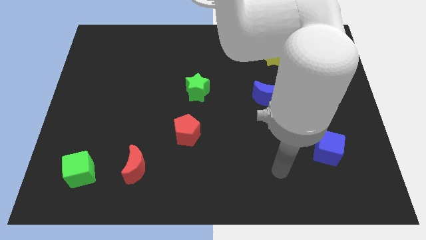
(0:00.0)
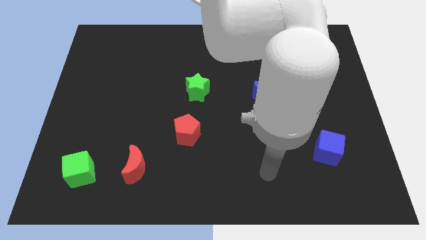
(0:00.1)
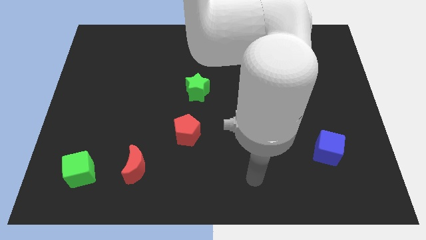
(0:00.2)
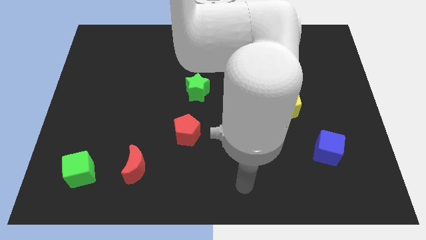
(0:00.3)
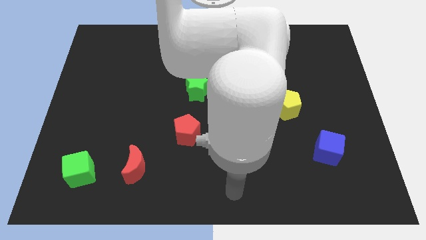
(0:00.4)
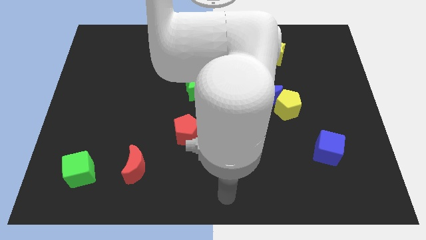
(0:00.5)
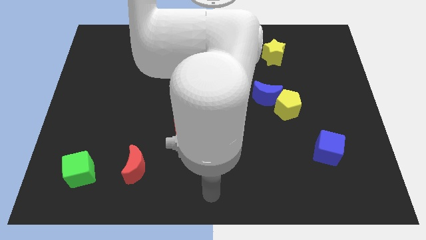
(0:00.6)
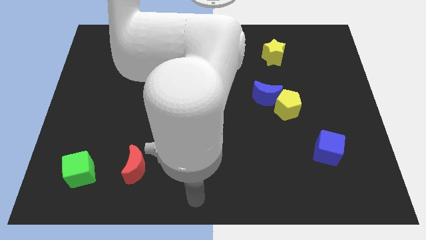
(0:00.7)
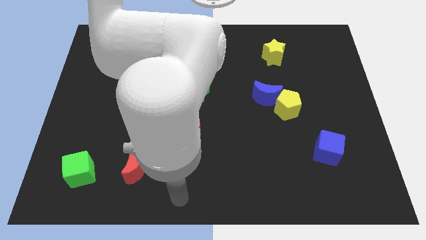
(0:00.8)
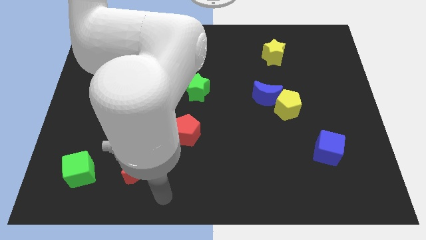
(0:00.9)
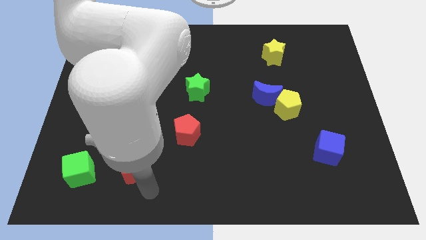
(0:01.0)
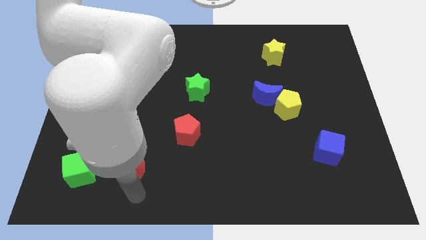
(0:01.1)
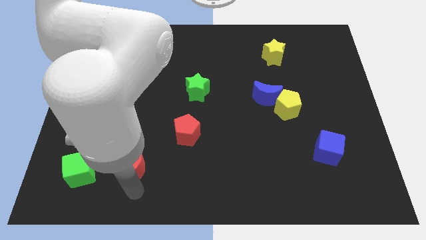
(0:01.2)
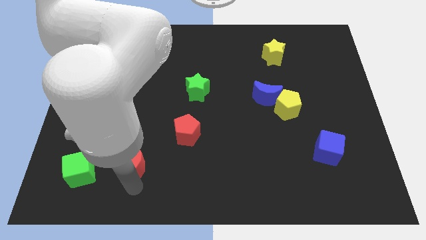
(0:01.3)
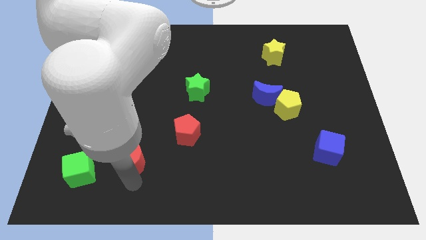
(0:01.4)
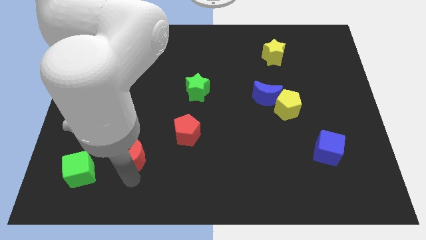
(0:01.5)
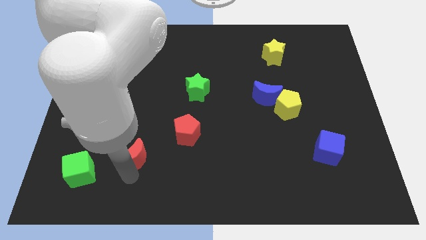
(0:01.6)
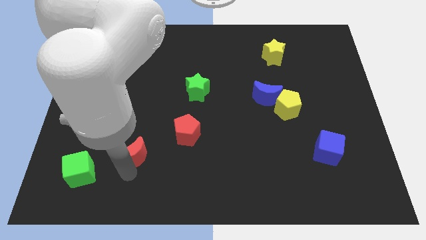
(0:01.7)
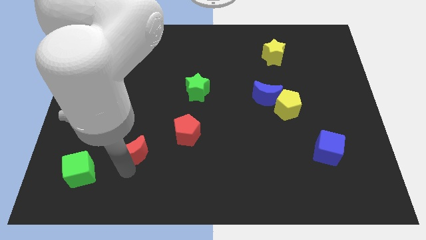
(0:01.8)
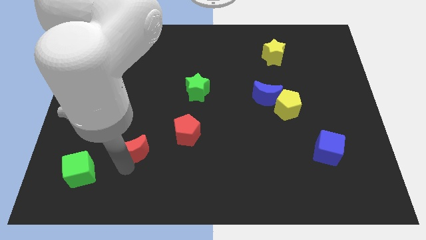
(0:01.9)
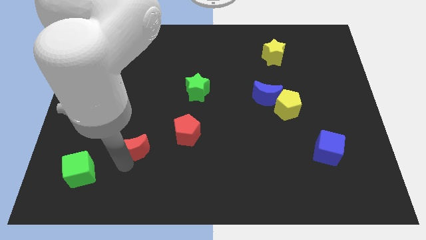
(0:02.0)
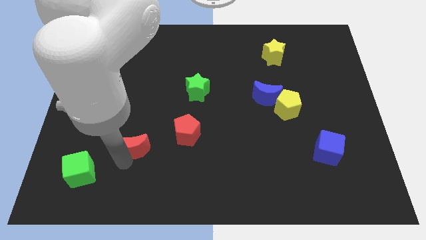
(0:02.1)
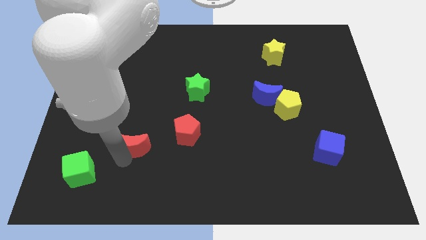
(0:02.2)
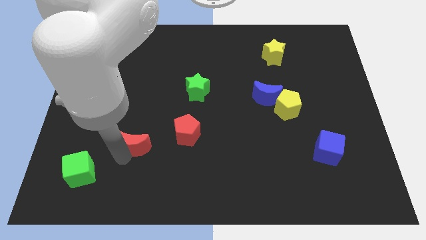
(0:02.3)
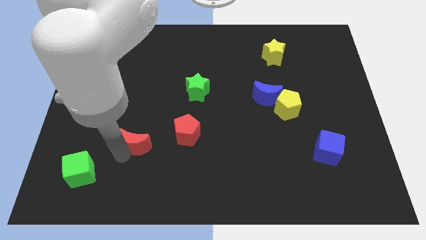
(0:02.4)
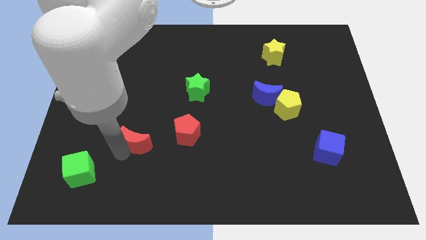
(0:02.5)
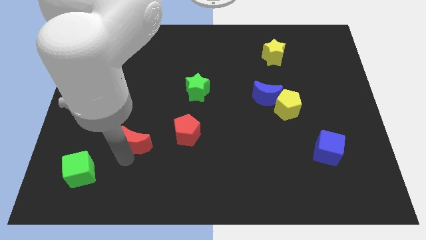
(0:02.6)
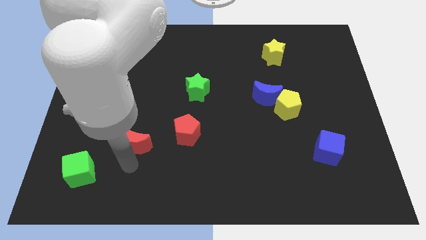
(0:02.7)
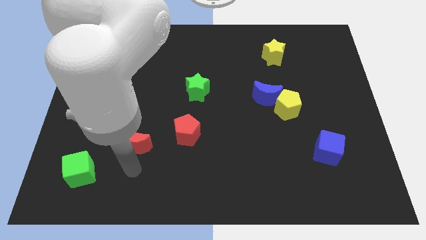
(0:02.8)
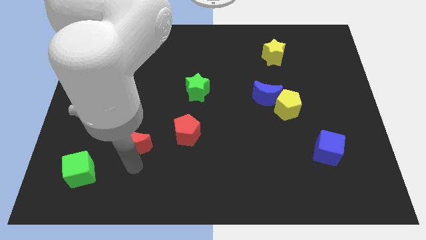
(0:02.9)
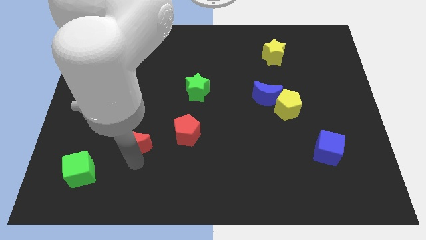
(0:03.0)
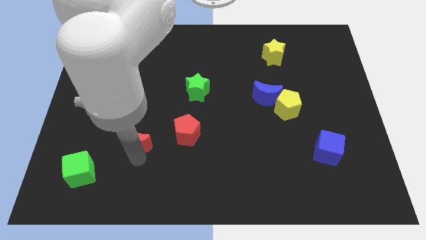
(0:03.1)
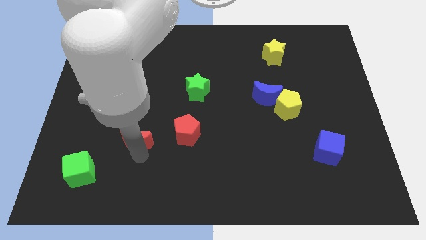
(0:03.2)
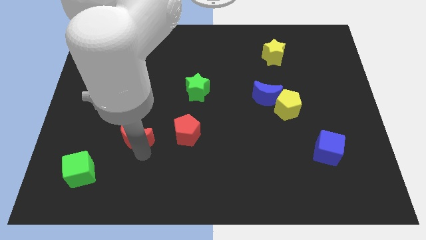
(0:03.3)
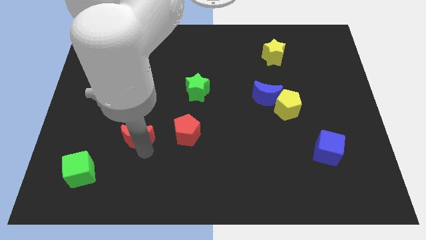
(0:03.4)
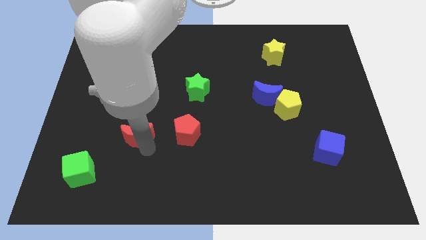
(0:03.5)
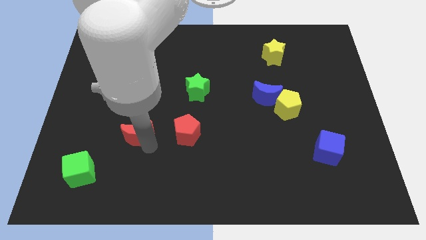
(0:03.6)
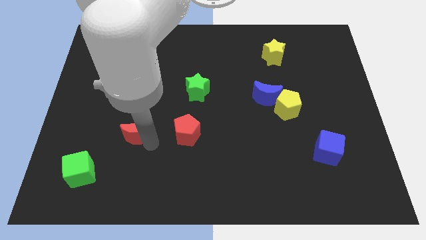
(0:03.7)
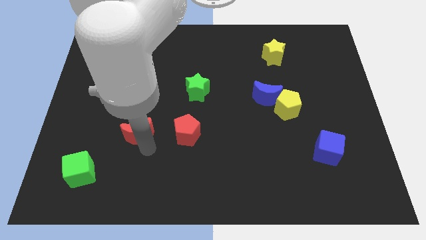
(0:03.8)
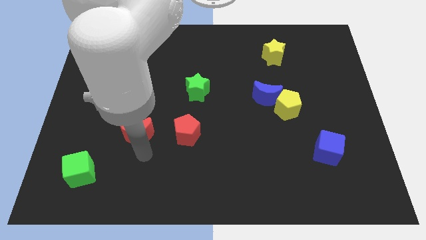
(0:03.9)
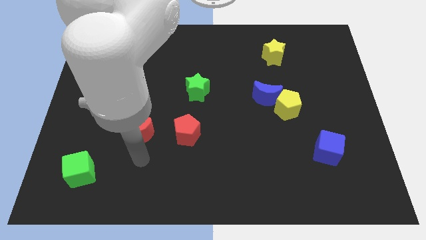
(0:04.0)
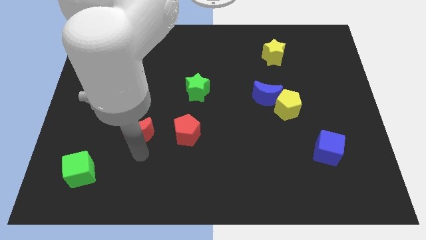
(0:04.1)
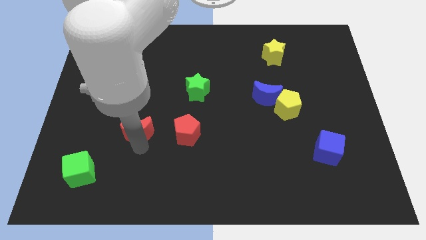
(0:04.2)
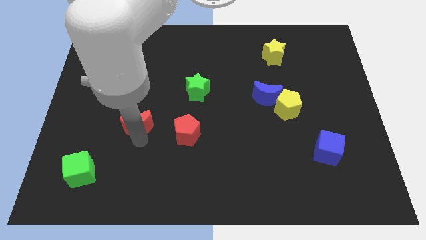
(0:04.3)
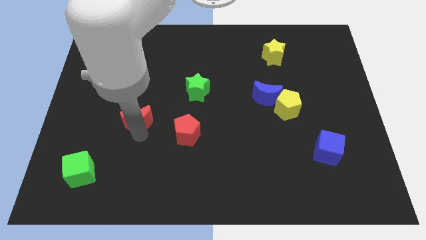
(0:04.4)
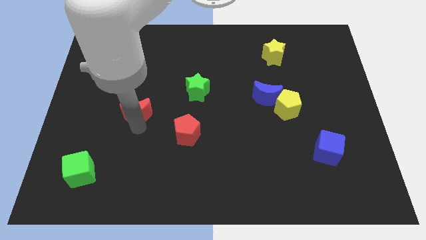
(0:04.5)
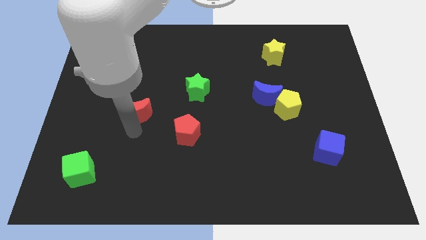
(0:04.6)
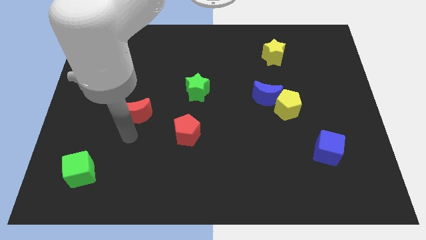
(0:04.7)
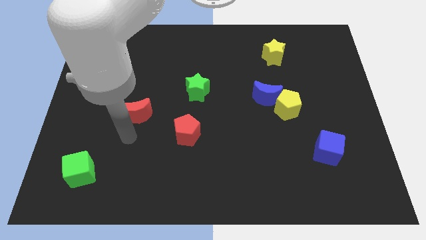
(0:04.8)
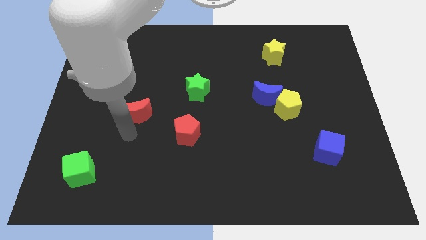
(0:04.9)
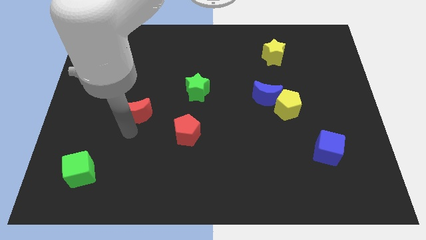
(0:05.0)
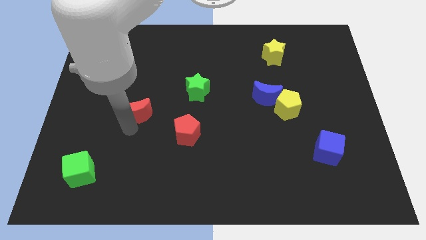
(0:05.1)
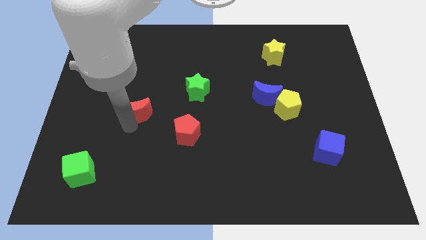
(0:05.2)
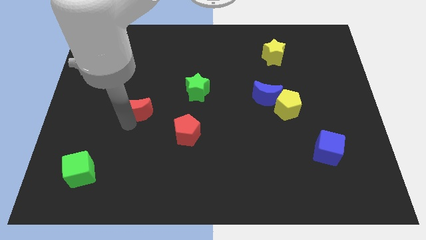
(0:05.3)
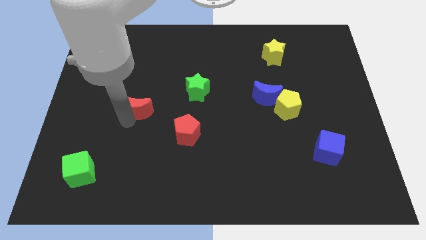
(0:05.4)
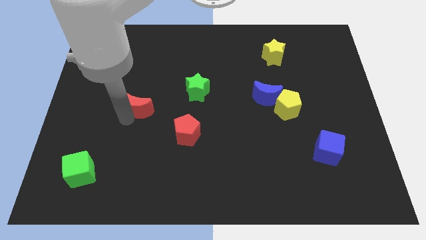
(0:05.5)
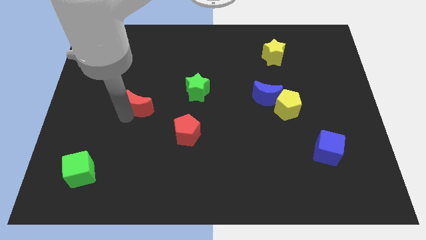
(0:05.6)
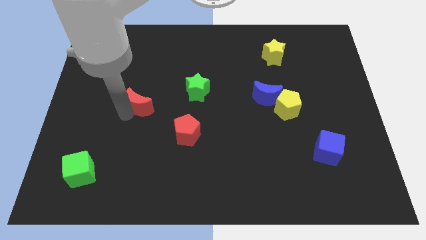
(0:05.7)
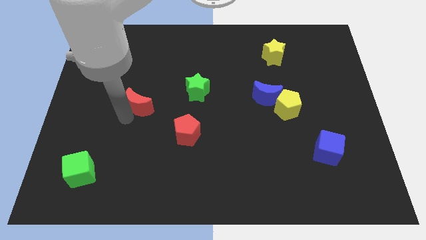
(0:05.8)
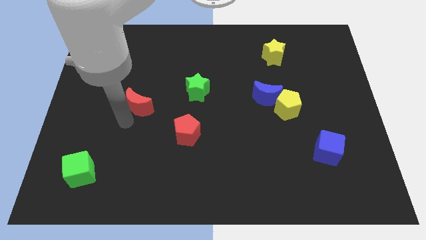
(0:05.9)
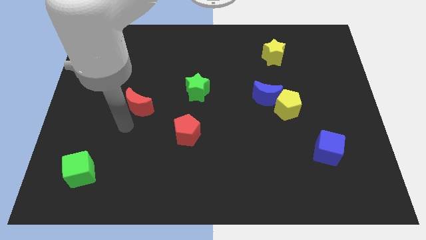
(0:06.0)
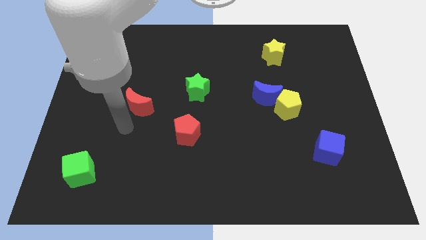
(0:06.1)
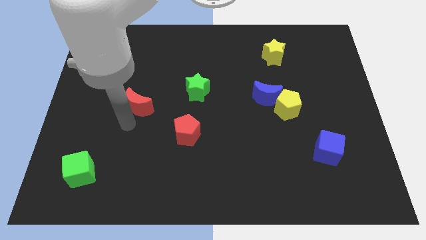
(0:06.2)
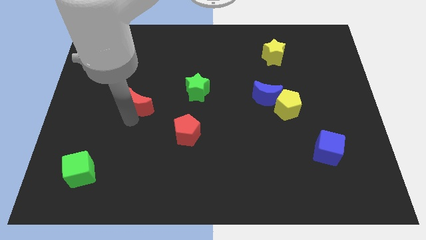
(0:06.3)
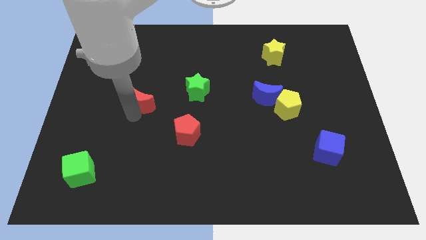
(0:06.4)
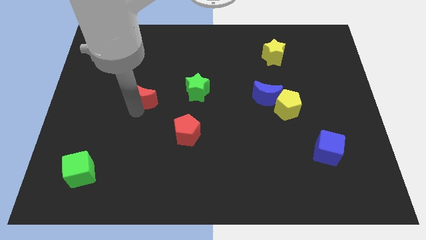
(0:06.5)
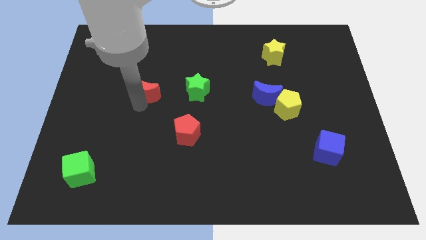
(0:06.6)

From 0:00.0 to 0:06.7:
move the red moon upwards

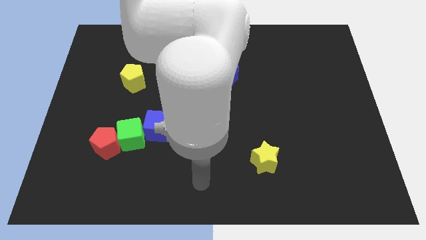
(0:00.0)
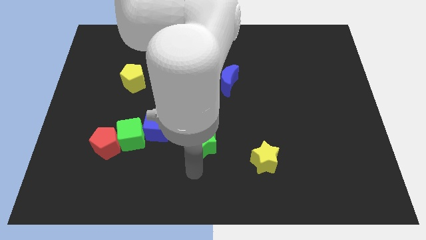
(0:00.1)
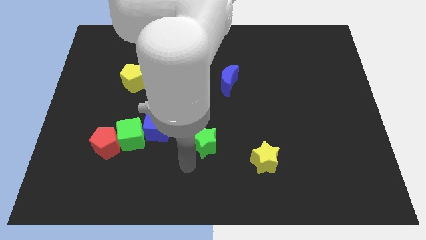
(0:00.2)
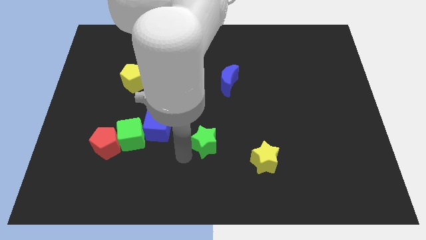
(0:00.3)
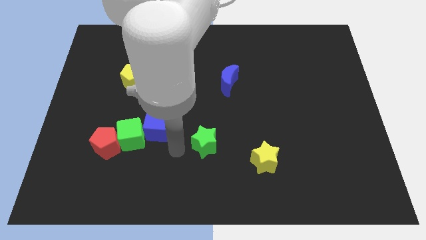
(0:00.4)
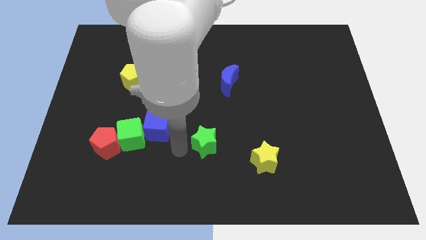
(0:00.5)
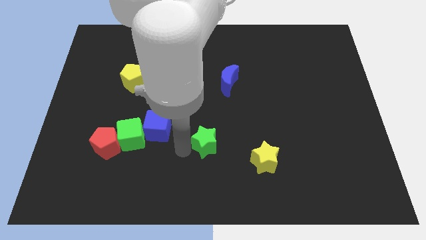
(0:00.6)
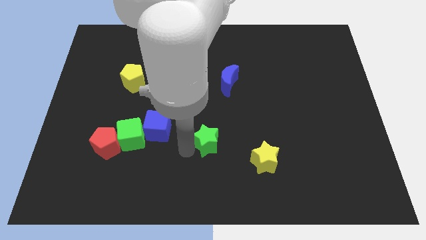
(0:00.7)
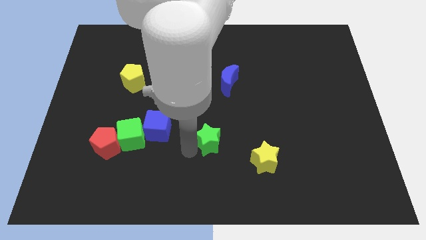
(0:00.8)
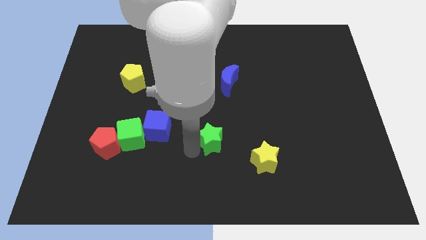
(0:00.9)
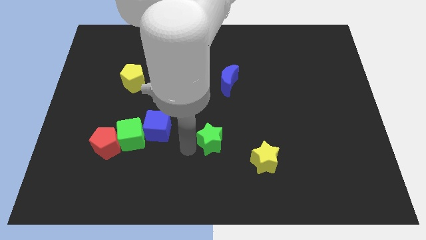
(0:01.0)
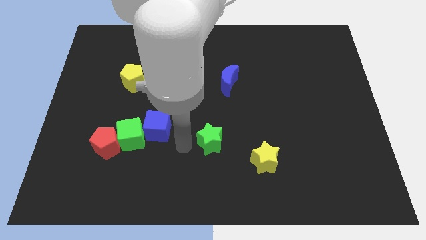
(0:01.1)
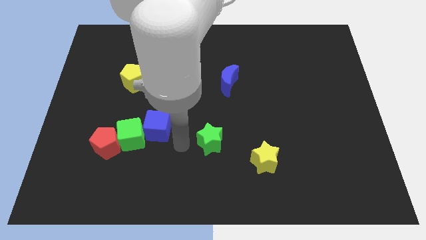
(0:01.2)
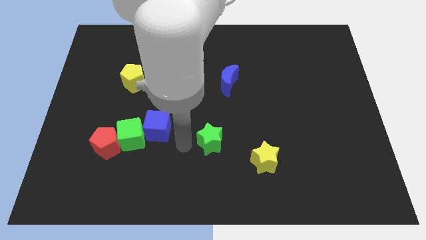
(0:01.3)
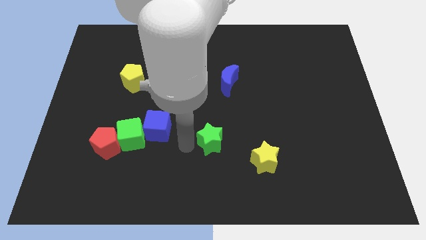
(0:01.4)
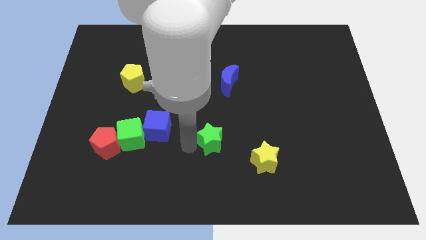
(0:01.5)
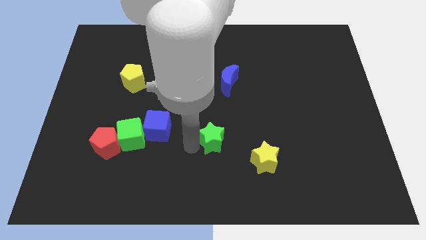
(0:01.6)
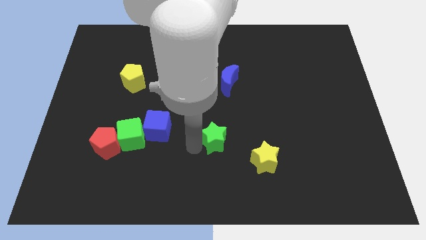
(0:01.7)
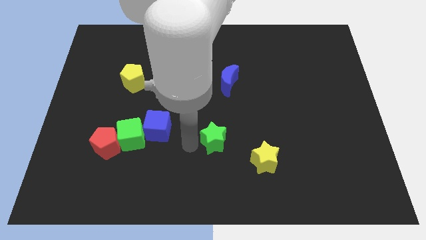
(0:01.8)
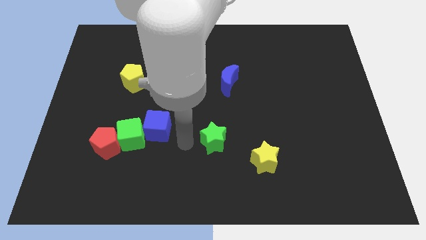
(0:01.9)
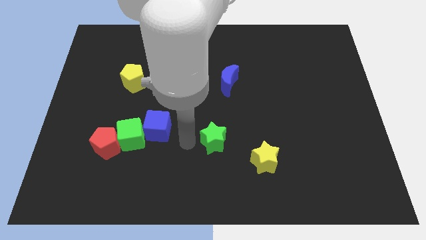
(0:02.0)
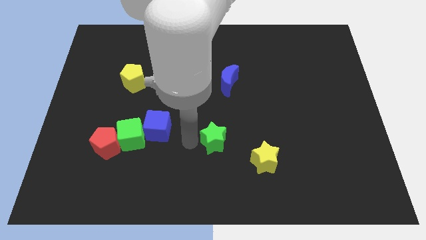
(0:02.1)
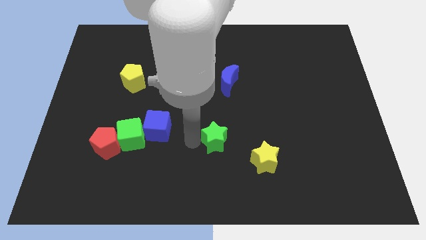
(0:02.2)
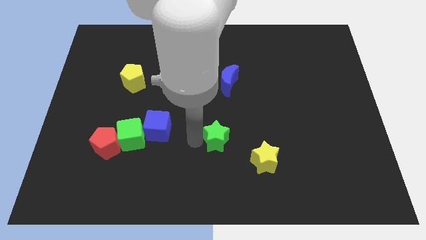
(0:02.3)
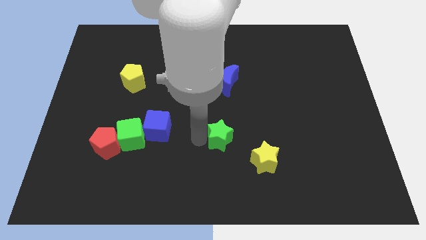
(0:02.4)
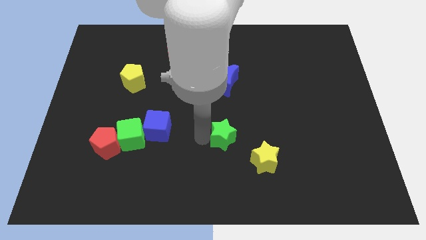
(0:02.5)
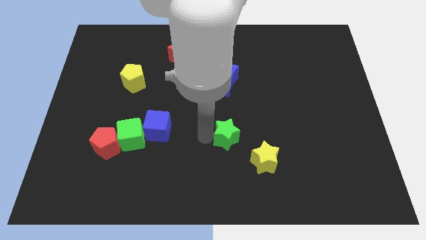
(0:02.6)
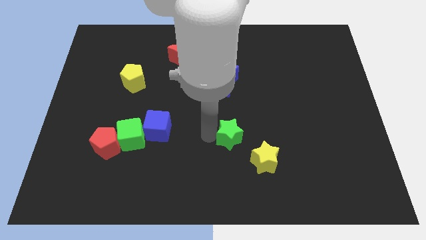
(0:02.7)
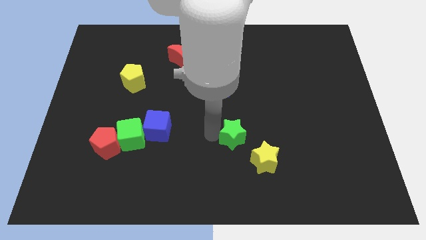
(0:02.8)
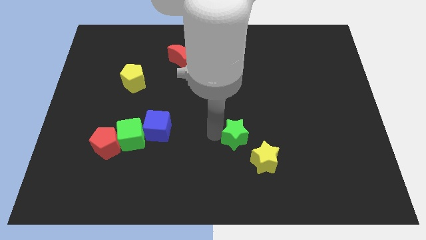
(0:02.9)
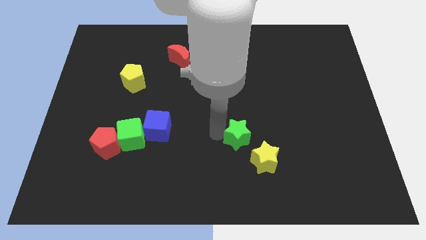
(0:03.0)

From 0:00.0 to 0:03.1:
move the green star right a little bit
